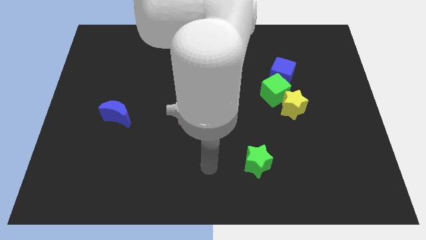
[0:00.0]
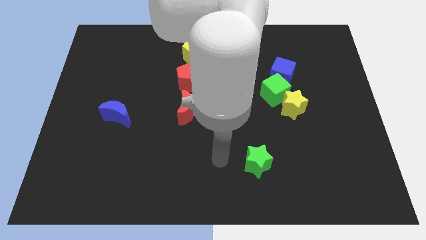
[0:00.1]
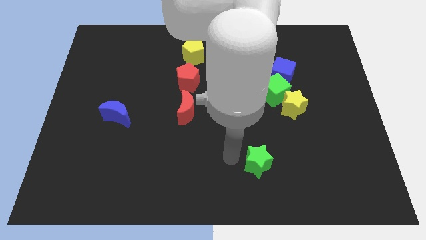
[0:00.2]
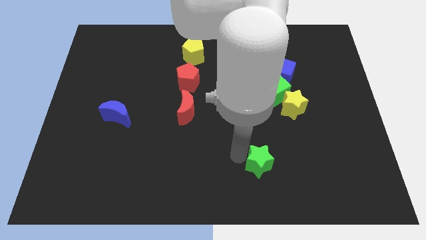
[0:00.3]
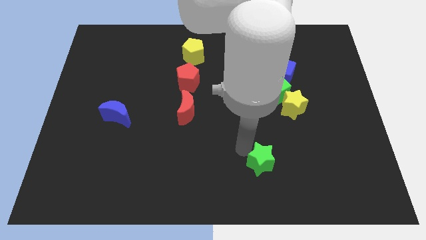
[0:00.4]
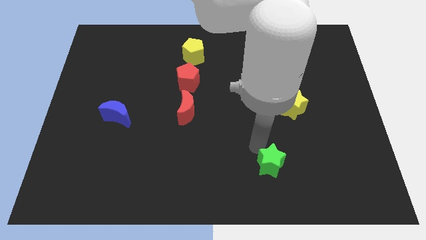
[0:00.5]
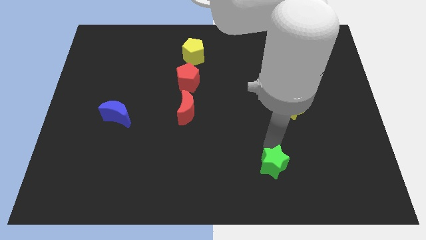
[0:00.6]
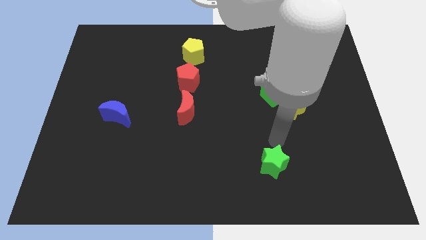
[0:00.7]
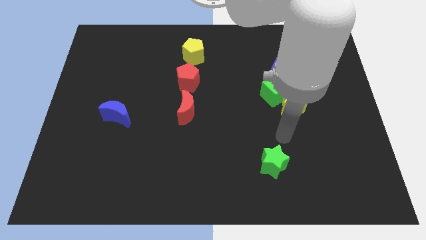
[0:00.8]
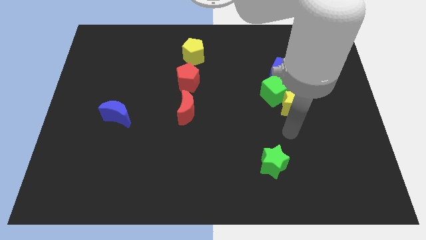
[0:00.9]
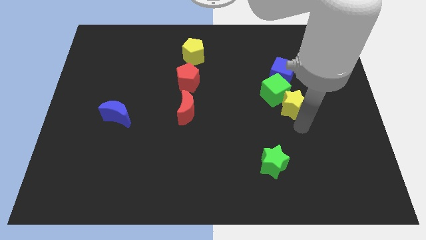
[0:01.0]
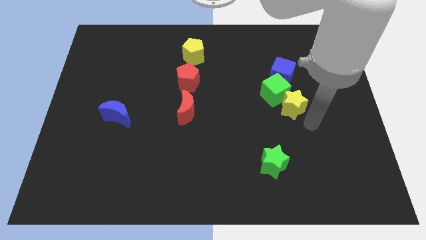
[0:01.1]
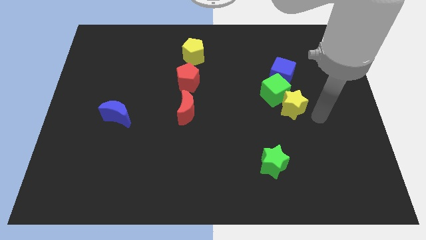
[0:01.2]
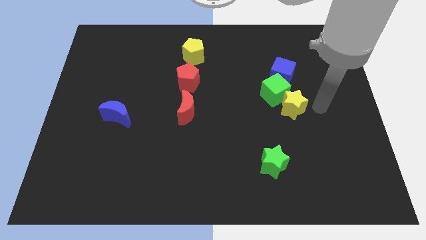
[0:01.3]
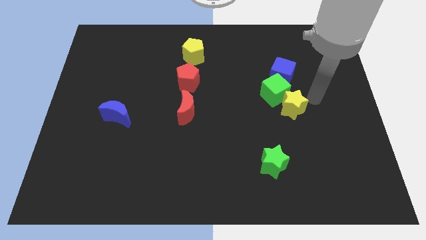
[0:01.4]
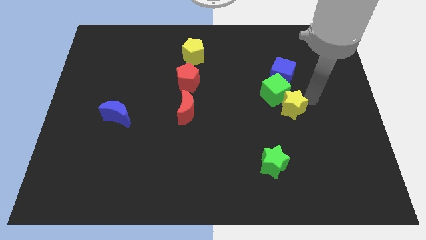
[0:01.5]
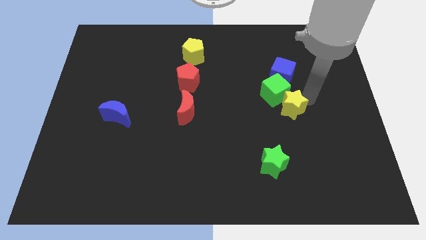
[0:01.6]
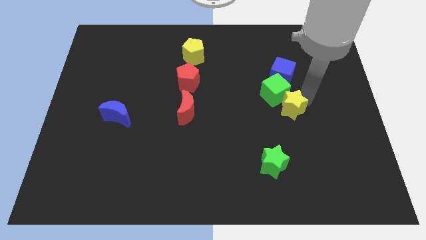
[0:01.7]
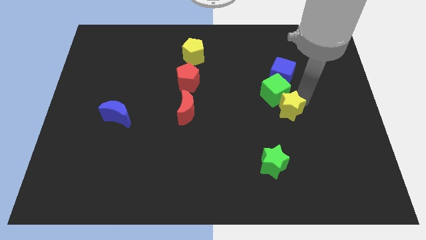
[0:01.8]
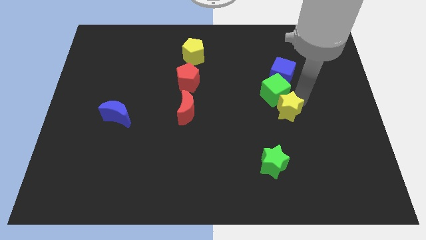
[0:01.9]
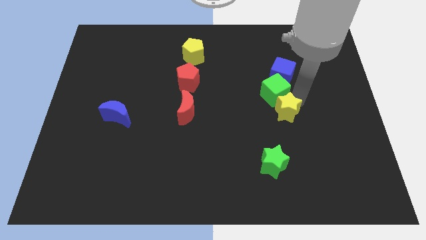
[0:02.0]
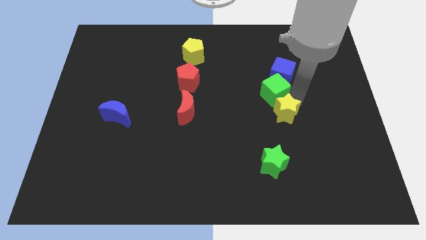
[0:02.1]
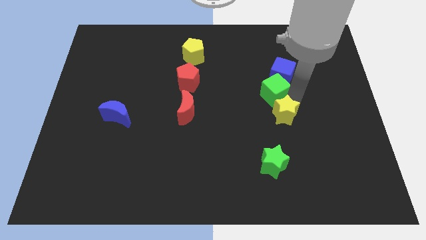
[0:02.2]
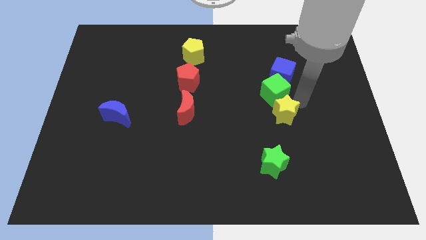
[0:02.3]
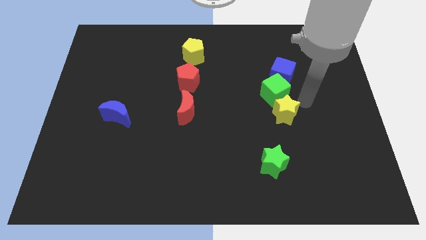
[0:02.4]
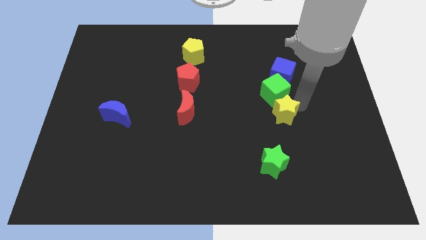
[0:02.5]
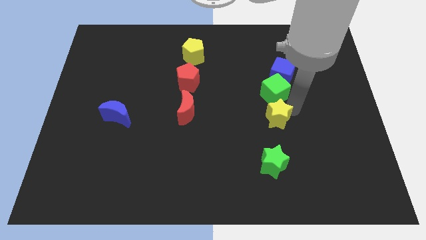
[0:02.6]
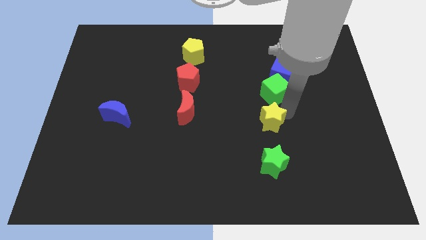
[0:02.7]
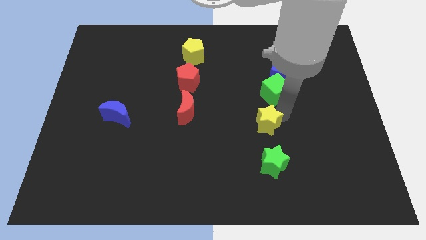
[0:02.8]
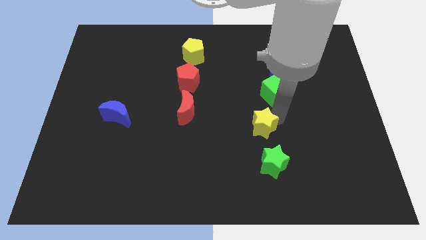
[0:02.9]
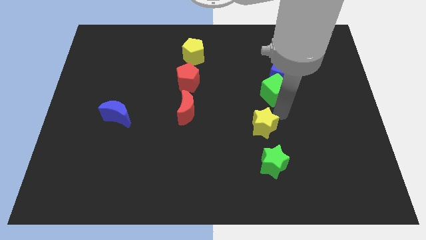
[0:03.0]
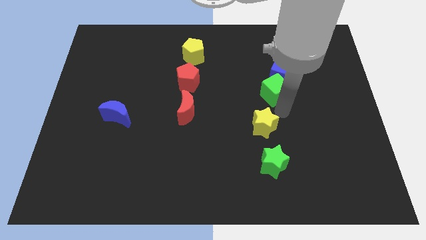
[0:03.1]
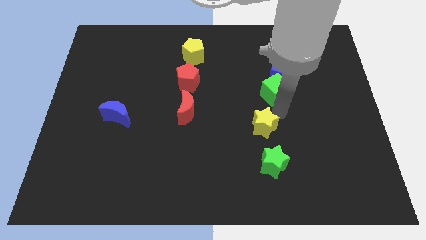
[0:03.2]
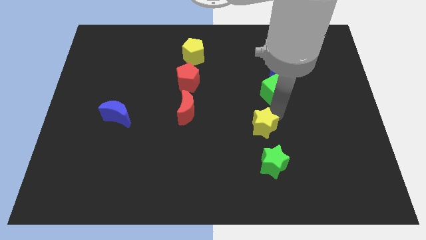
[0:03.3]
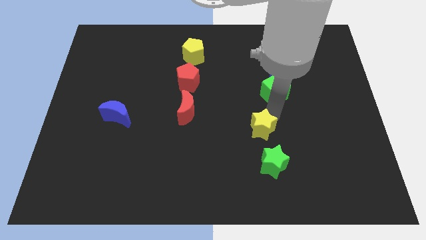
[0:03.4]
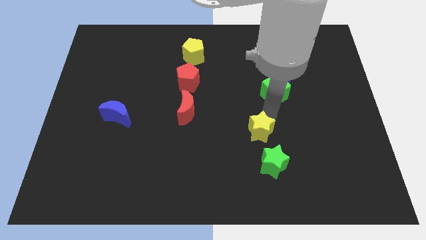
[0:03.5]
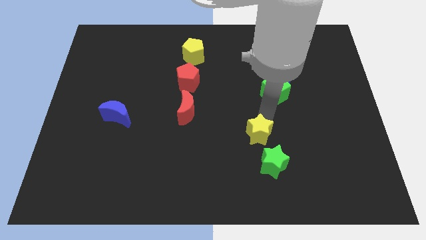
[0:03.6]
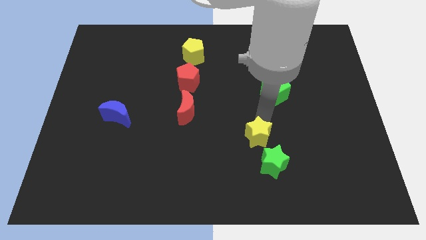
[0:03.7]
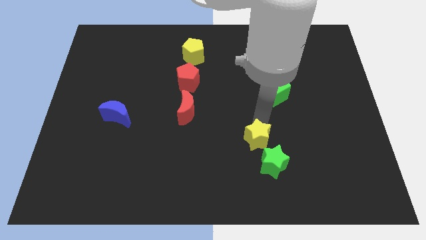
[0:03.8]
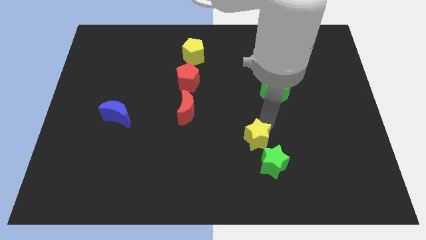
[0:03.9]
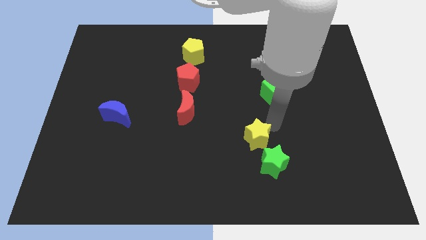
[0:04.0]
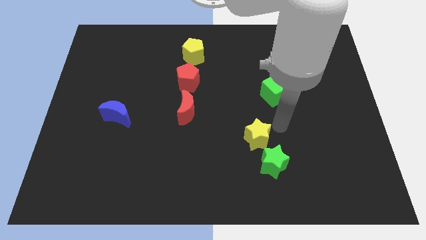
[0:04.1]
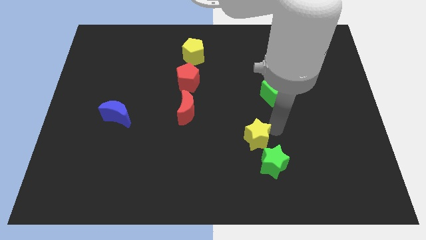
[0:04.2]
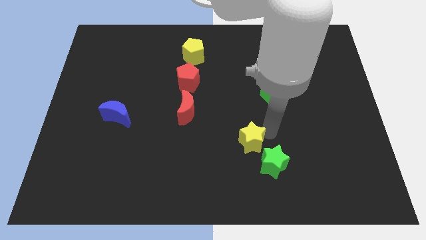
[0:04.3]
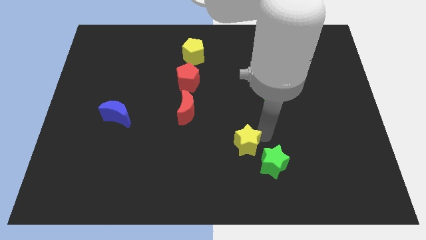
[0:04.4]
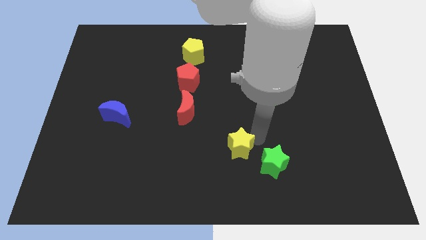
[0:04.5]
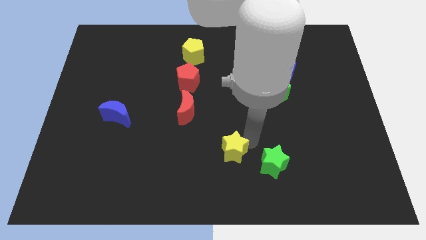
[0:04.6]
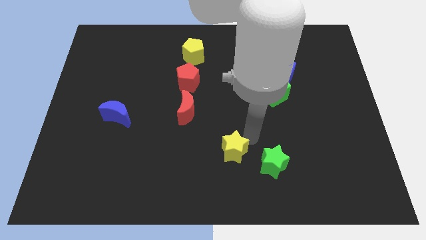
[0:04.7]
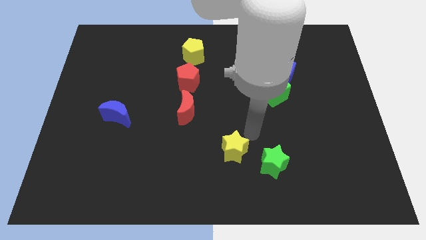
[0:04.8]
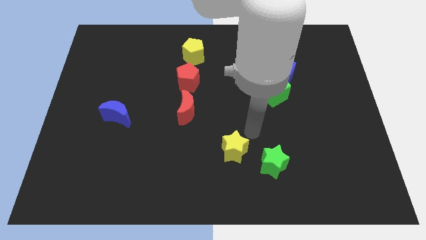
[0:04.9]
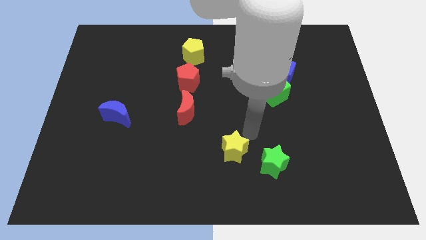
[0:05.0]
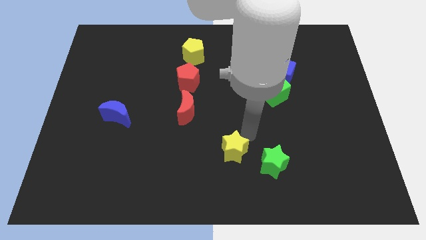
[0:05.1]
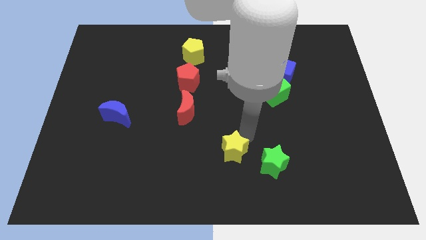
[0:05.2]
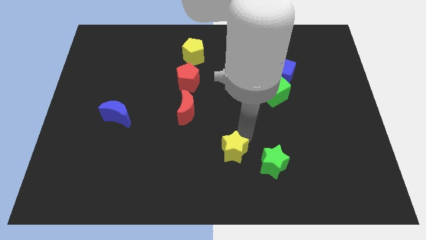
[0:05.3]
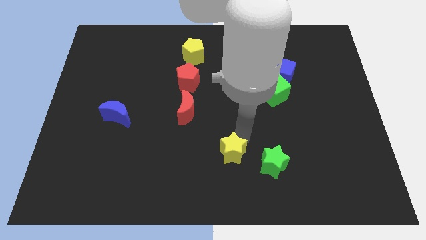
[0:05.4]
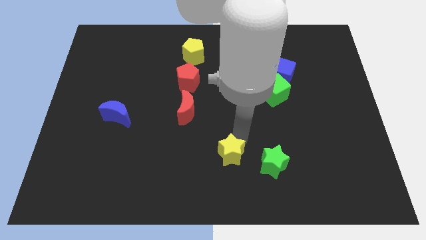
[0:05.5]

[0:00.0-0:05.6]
push the yellow star to the bottom
